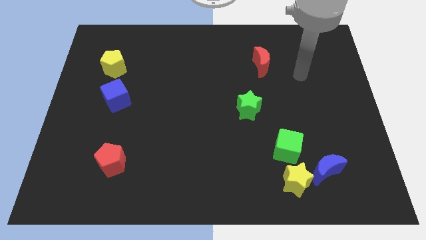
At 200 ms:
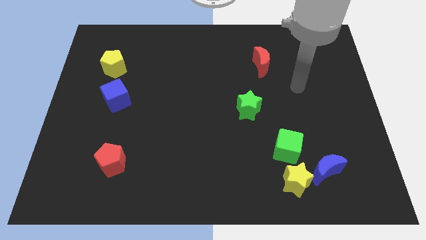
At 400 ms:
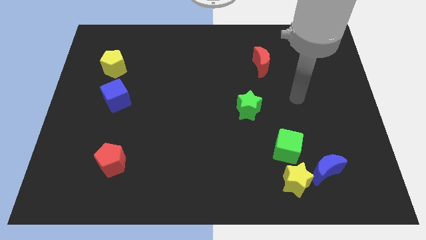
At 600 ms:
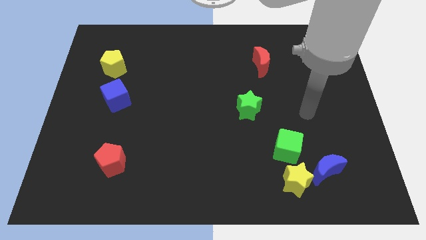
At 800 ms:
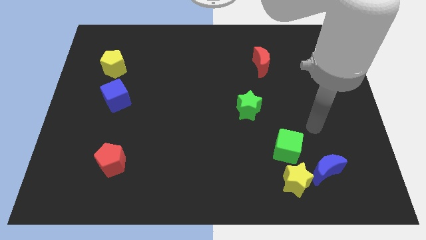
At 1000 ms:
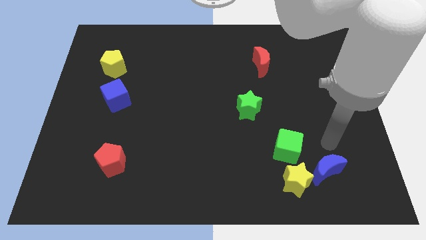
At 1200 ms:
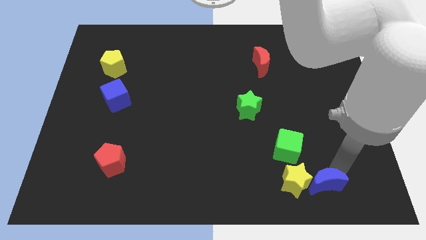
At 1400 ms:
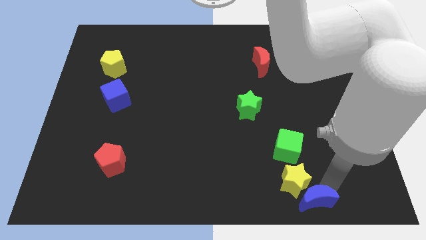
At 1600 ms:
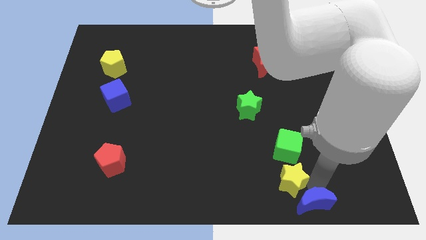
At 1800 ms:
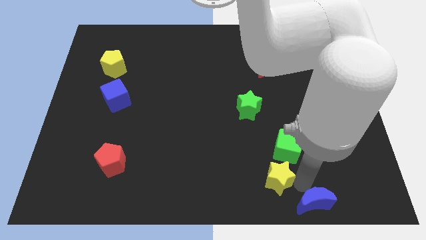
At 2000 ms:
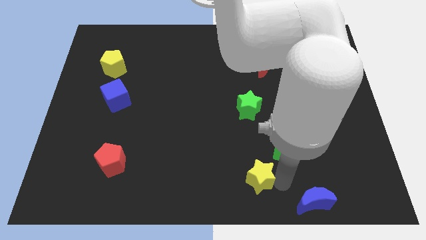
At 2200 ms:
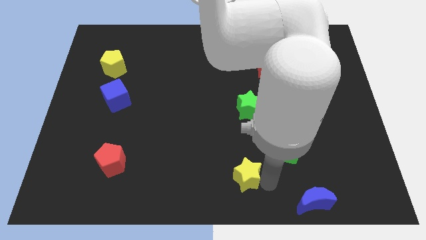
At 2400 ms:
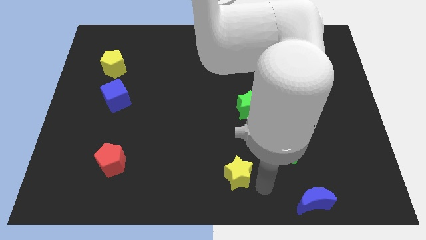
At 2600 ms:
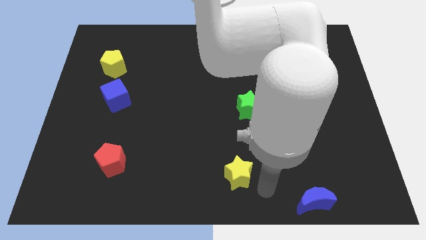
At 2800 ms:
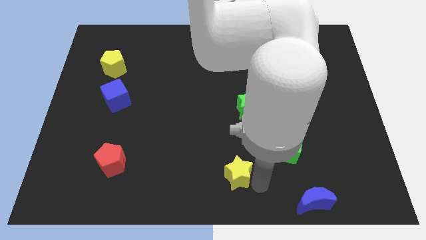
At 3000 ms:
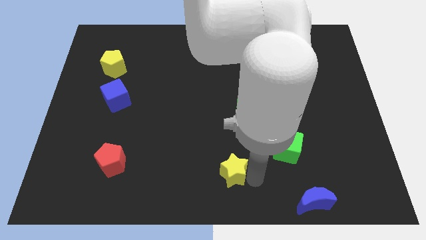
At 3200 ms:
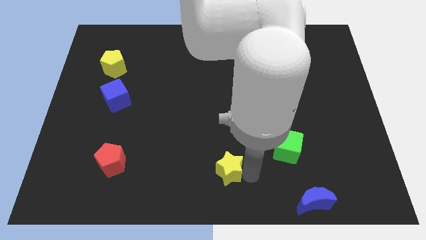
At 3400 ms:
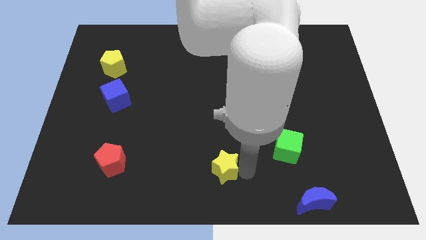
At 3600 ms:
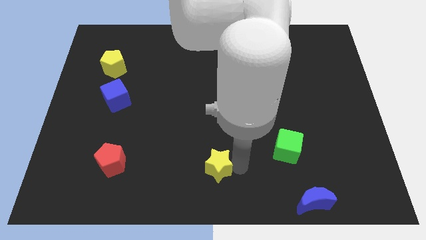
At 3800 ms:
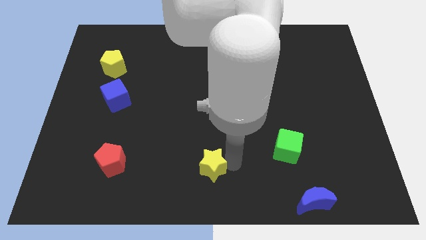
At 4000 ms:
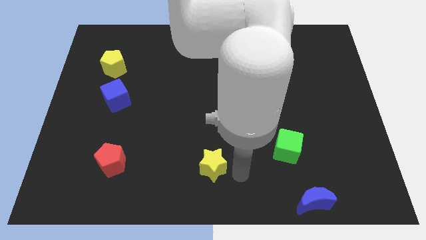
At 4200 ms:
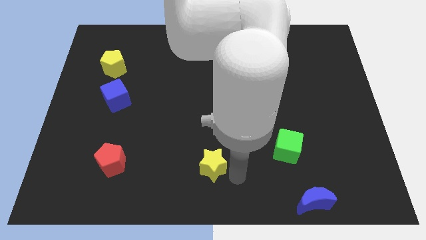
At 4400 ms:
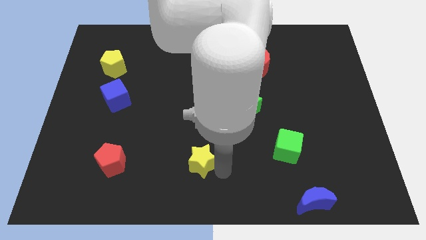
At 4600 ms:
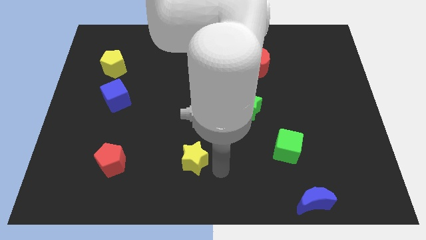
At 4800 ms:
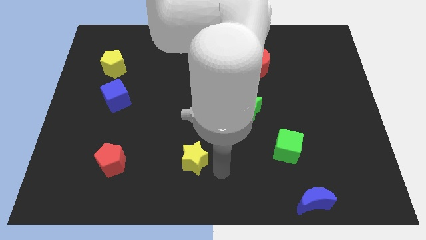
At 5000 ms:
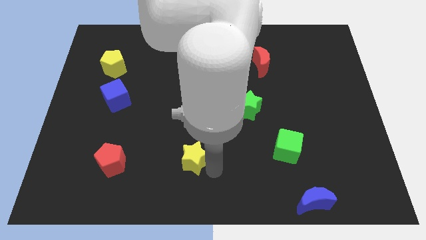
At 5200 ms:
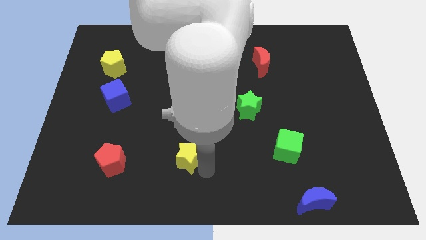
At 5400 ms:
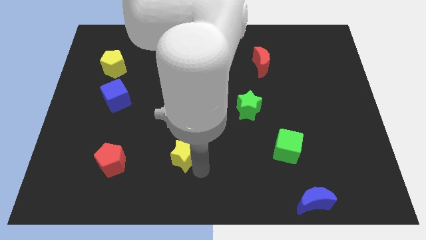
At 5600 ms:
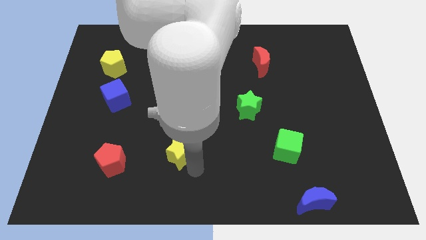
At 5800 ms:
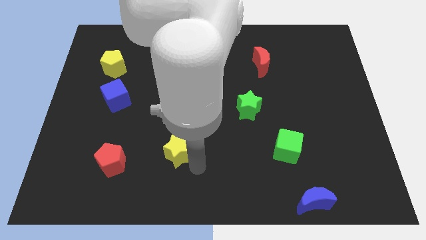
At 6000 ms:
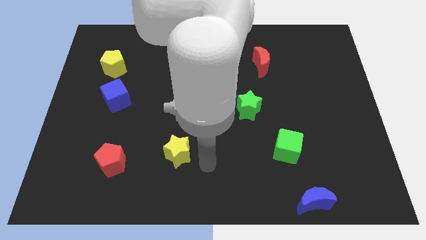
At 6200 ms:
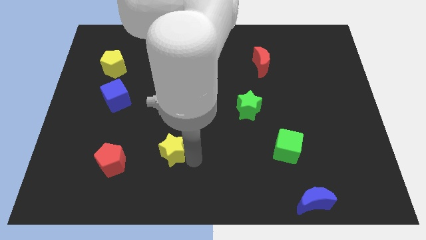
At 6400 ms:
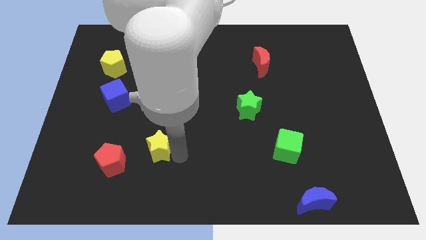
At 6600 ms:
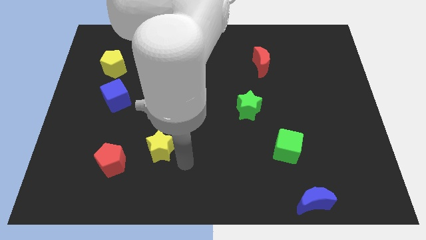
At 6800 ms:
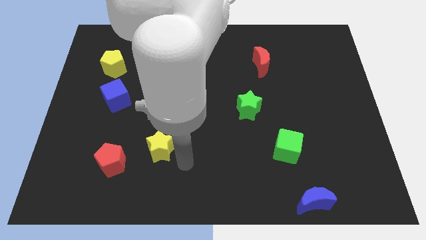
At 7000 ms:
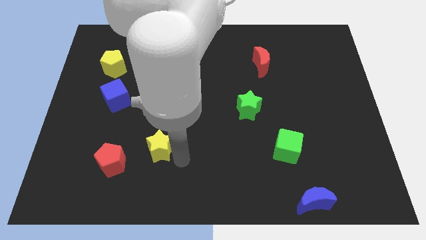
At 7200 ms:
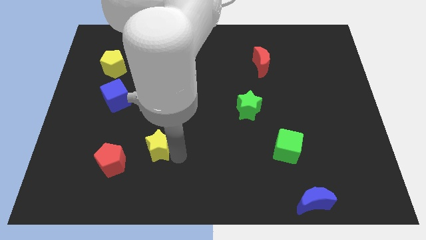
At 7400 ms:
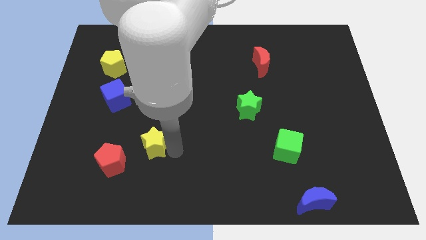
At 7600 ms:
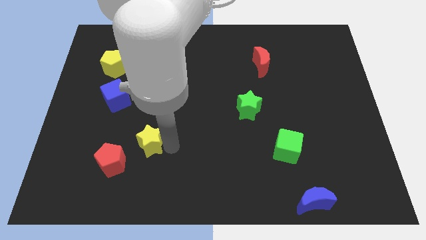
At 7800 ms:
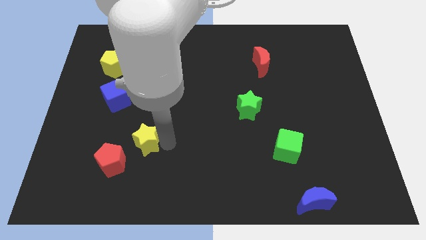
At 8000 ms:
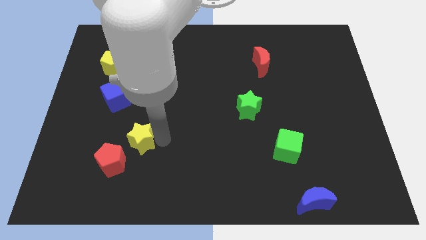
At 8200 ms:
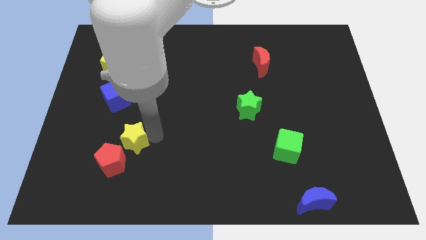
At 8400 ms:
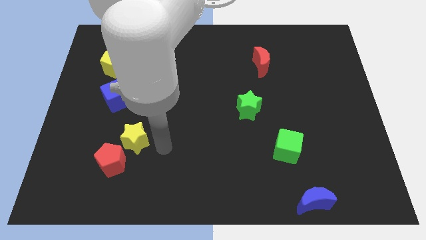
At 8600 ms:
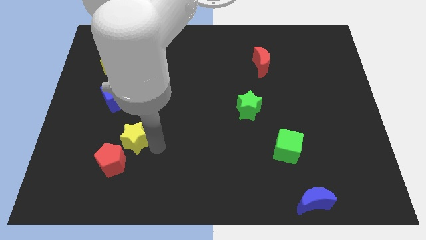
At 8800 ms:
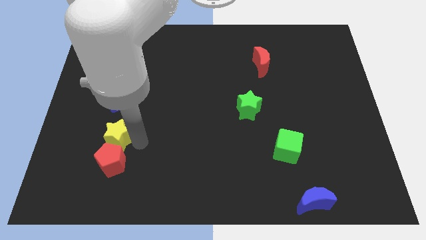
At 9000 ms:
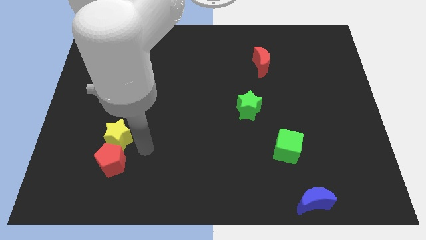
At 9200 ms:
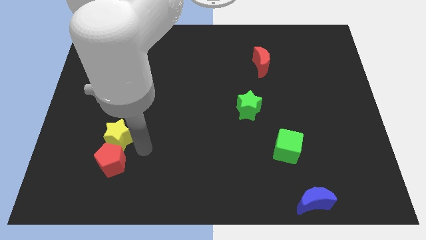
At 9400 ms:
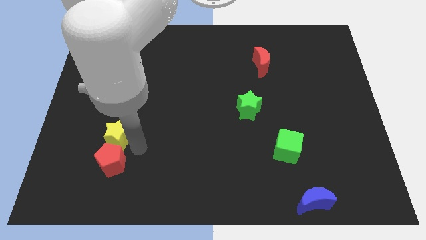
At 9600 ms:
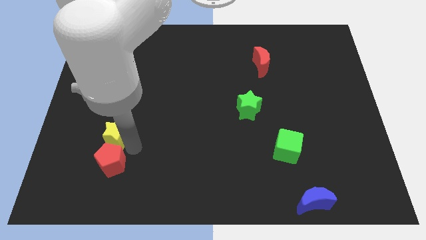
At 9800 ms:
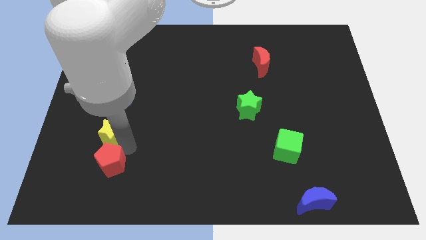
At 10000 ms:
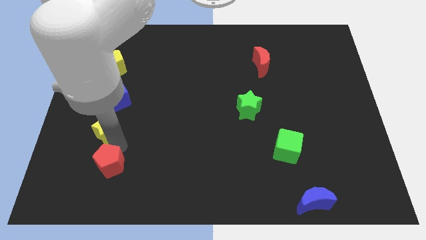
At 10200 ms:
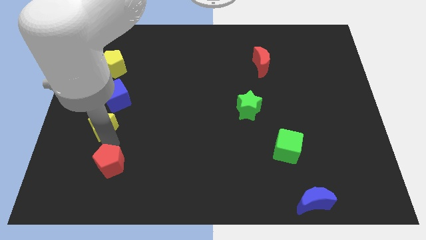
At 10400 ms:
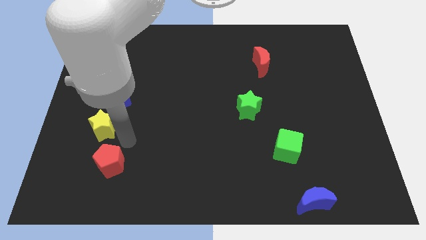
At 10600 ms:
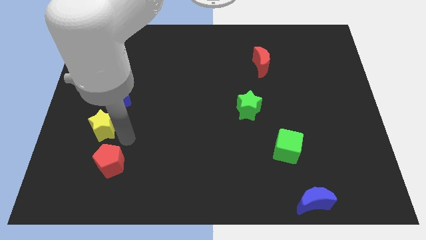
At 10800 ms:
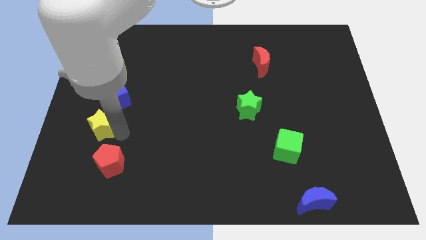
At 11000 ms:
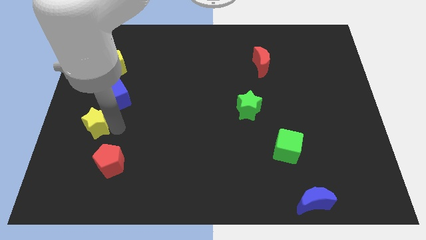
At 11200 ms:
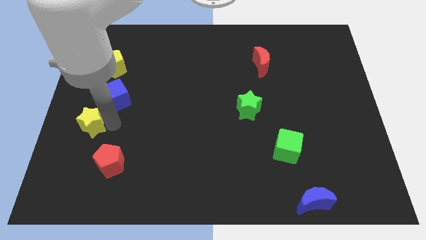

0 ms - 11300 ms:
move the yellow star to the left side
